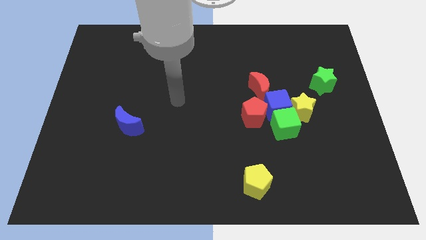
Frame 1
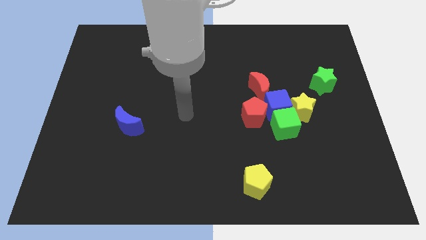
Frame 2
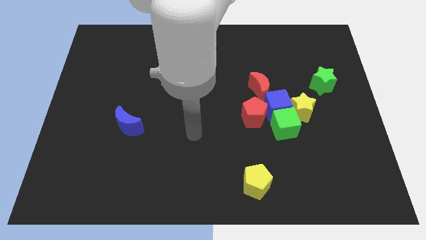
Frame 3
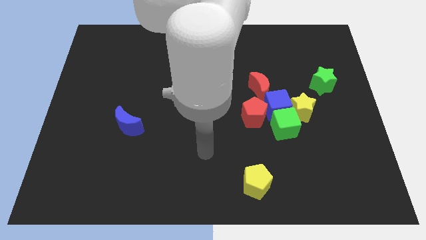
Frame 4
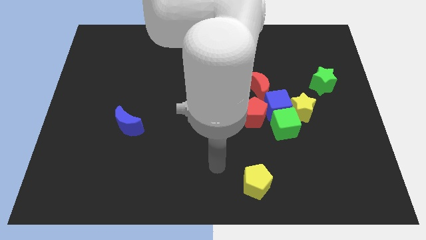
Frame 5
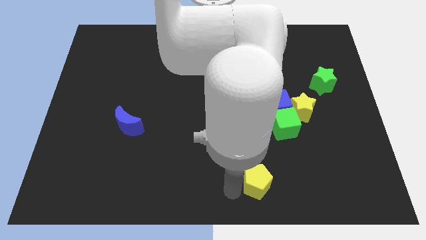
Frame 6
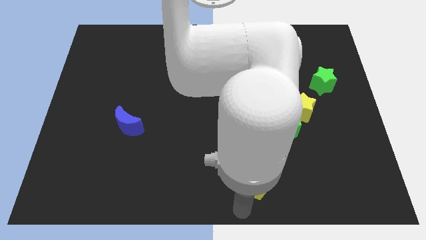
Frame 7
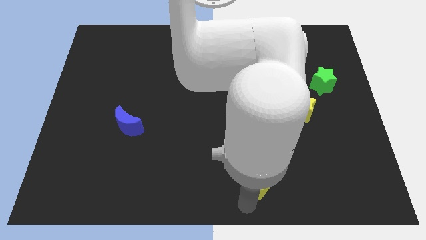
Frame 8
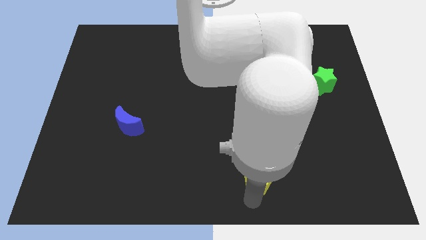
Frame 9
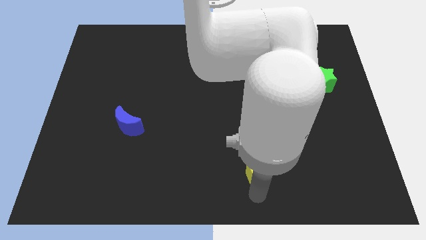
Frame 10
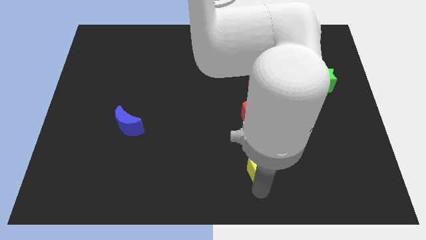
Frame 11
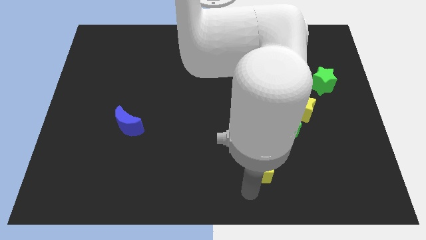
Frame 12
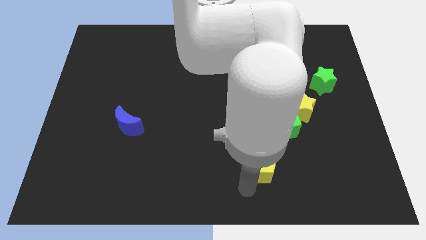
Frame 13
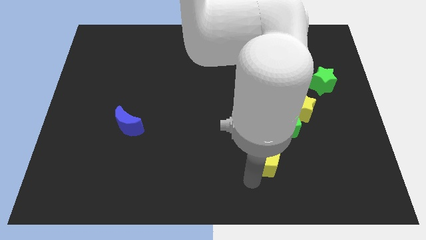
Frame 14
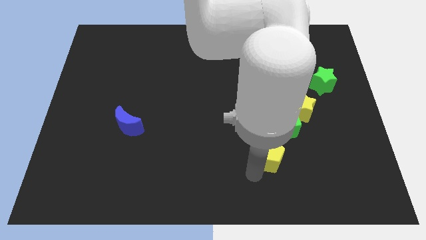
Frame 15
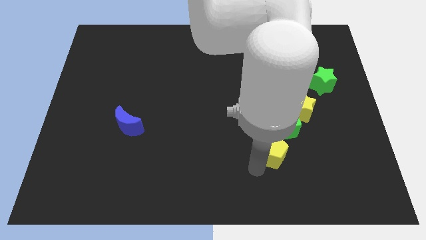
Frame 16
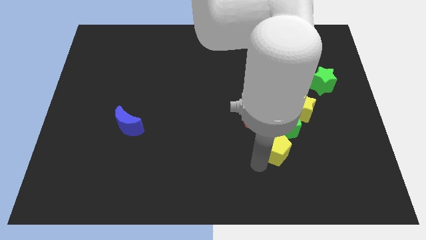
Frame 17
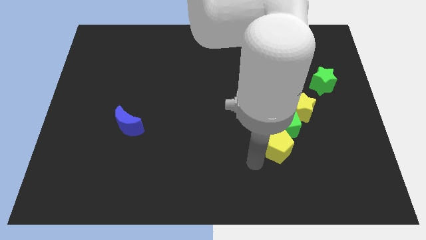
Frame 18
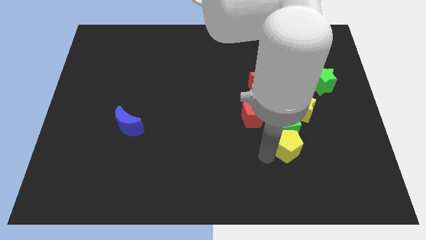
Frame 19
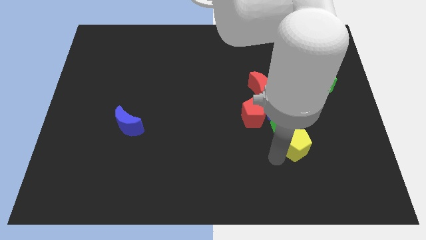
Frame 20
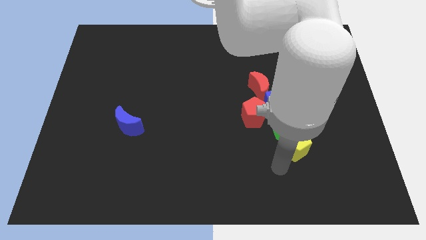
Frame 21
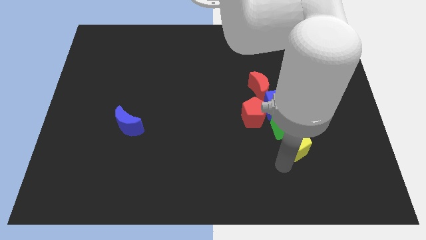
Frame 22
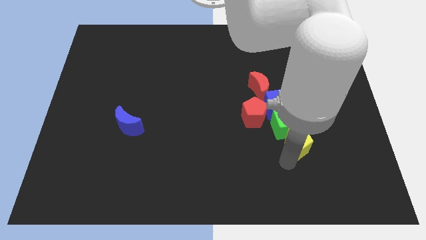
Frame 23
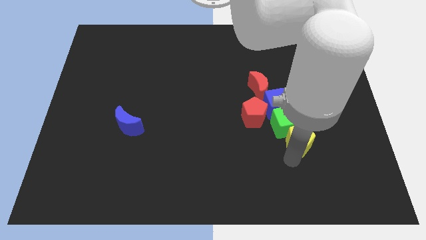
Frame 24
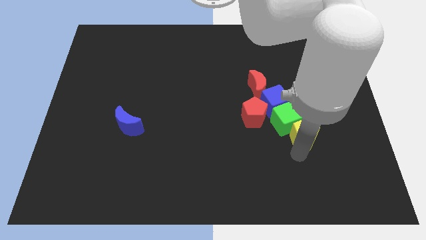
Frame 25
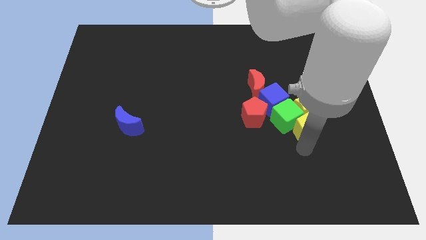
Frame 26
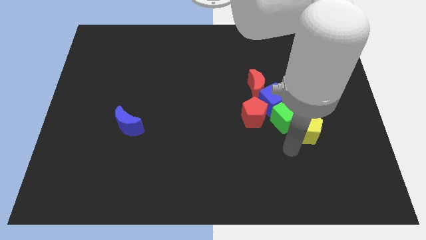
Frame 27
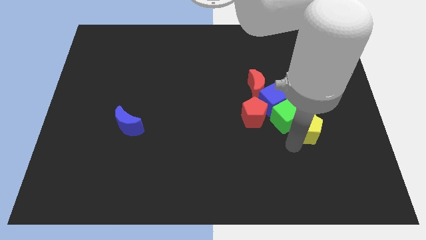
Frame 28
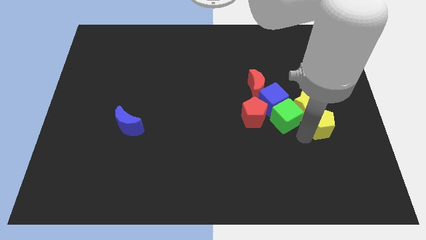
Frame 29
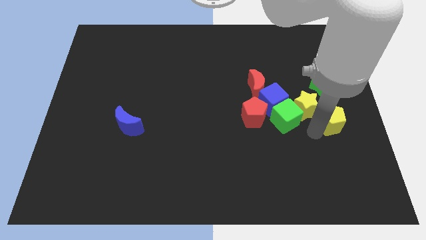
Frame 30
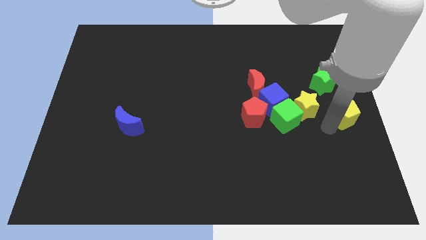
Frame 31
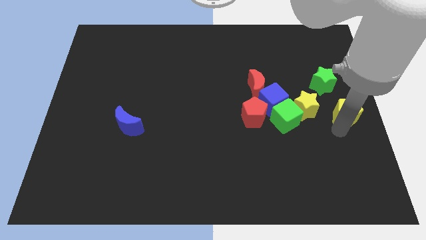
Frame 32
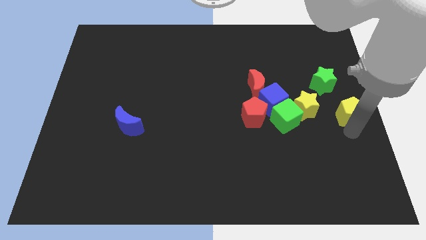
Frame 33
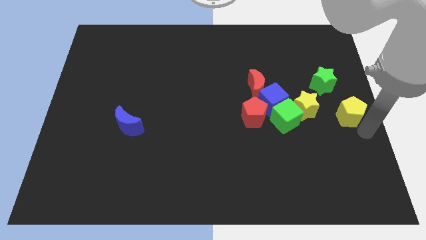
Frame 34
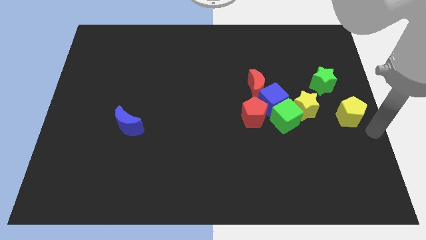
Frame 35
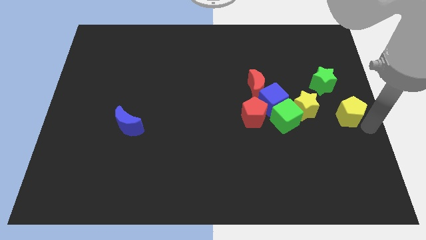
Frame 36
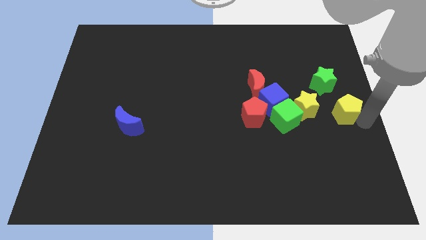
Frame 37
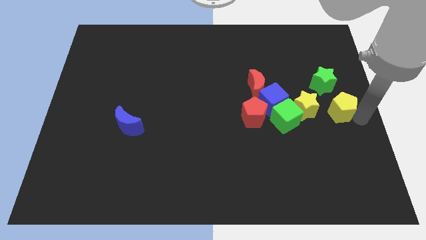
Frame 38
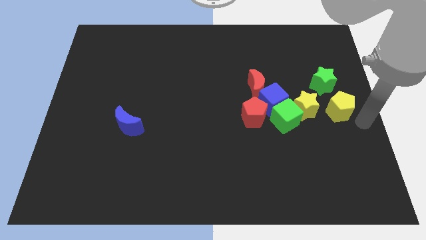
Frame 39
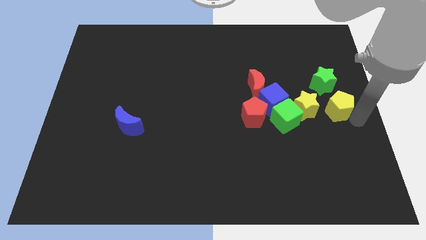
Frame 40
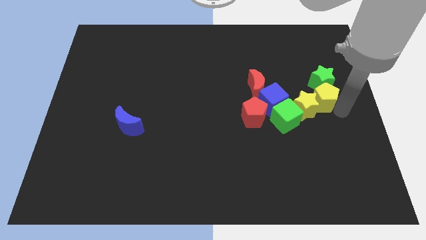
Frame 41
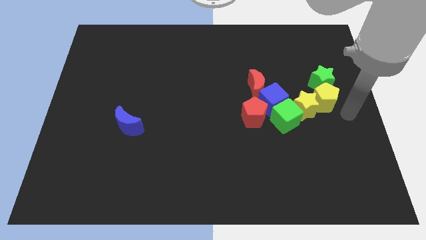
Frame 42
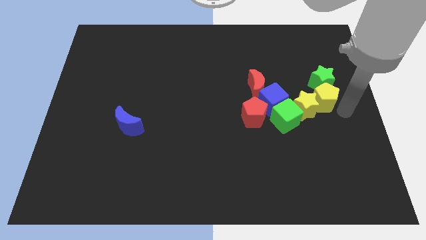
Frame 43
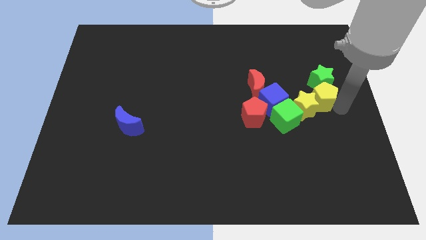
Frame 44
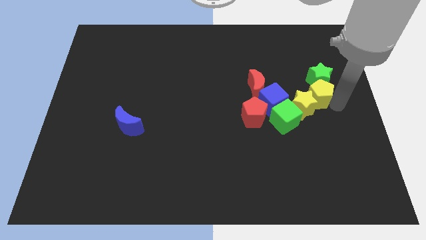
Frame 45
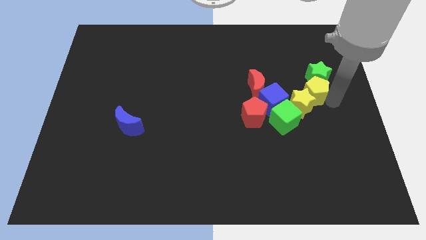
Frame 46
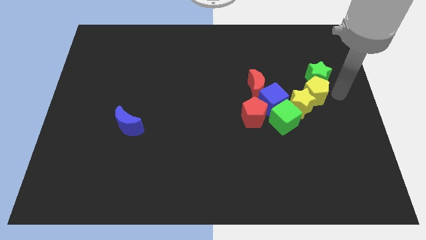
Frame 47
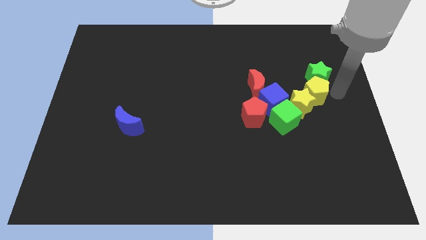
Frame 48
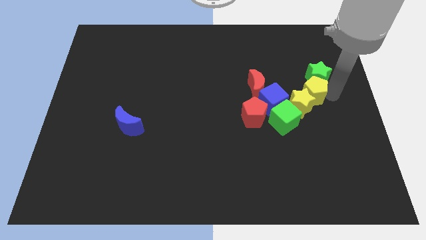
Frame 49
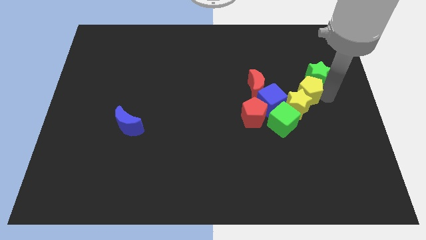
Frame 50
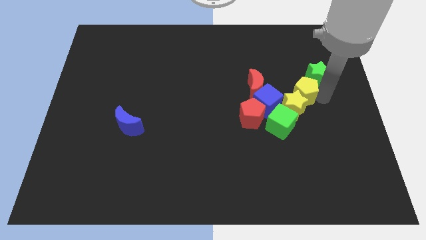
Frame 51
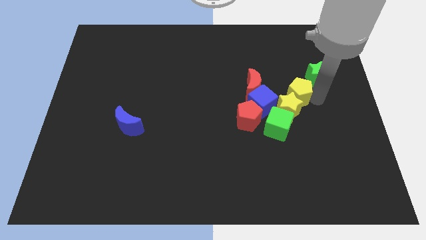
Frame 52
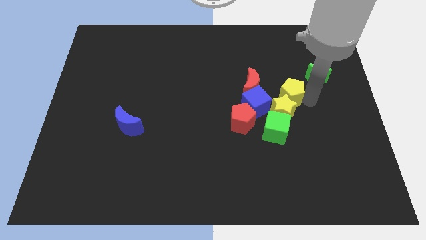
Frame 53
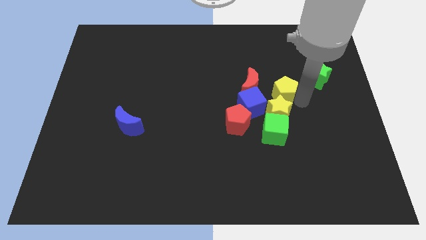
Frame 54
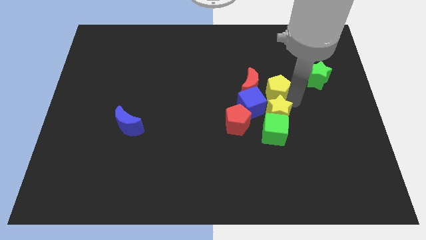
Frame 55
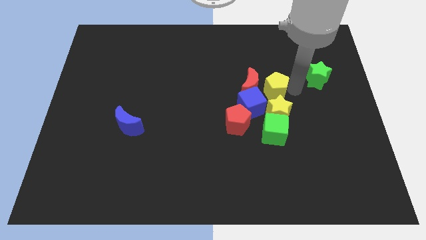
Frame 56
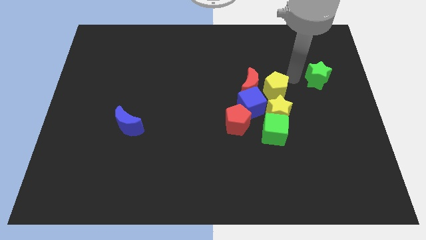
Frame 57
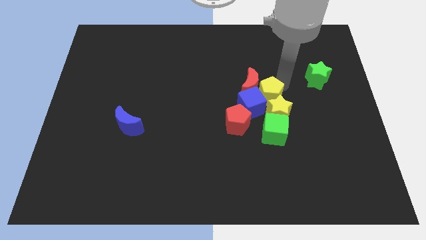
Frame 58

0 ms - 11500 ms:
move the yellow pentagon to the blue cube
